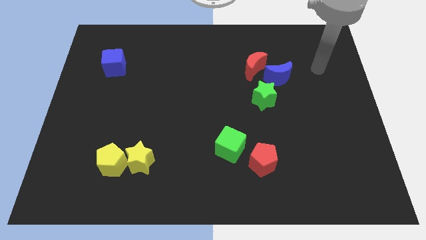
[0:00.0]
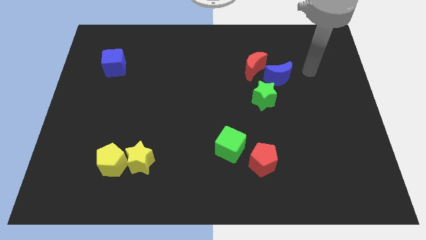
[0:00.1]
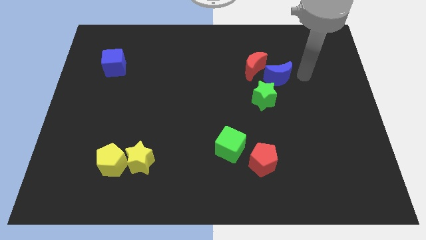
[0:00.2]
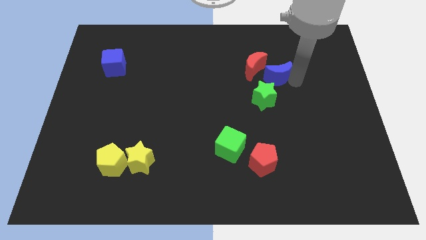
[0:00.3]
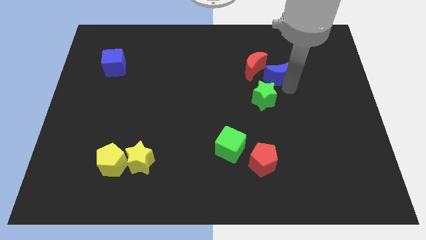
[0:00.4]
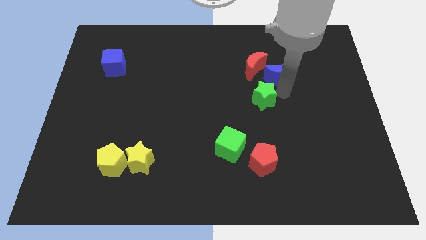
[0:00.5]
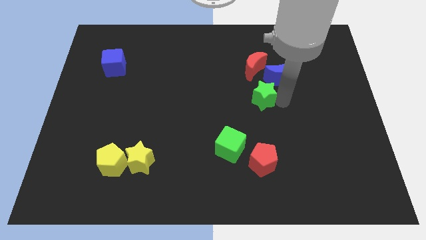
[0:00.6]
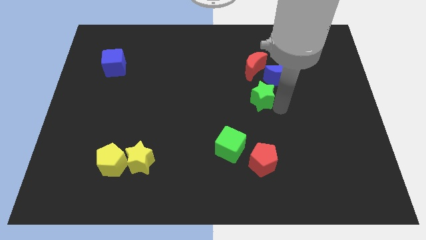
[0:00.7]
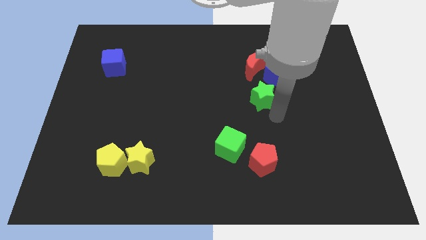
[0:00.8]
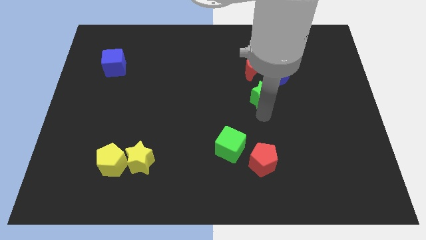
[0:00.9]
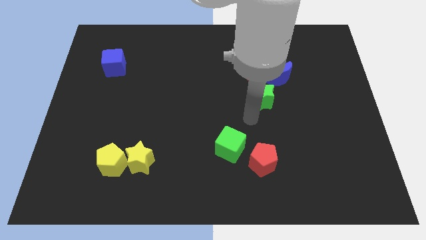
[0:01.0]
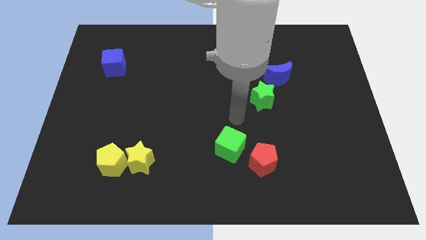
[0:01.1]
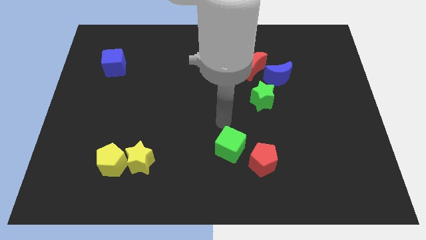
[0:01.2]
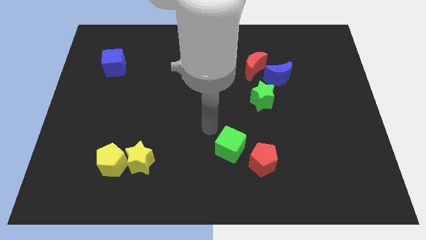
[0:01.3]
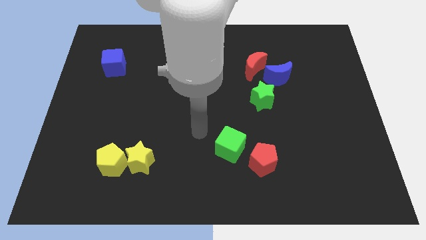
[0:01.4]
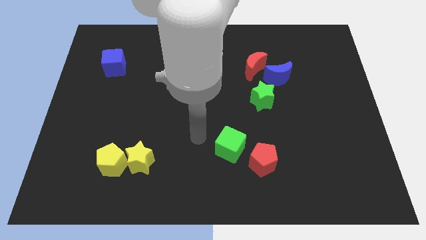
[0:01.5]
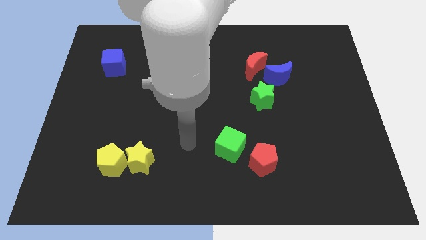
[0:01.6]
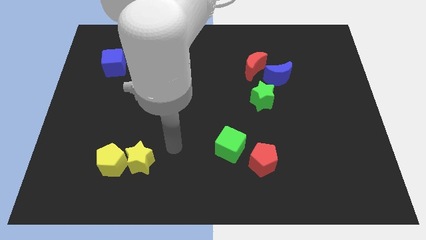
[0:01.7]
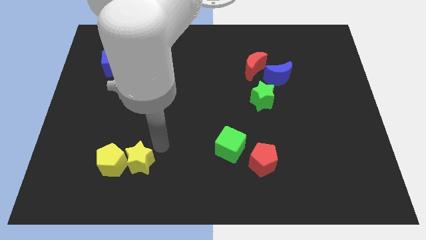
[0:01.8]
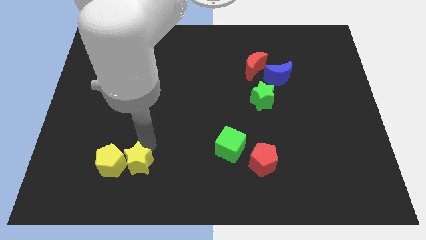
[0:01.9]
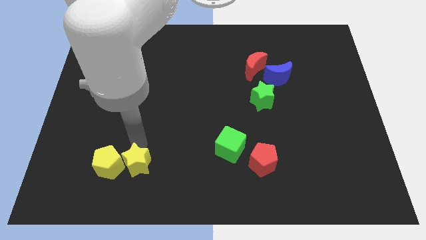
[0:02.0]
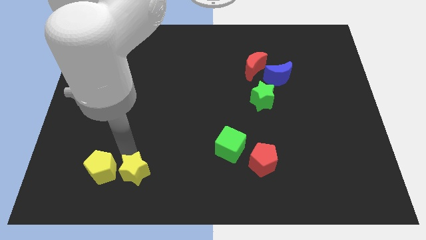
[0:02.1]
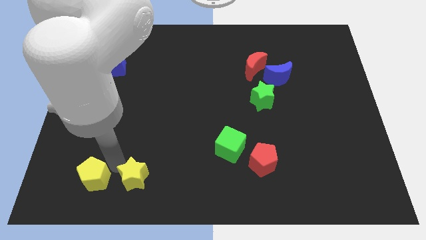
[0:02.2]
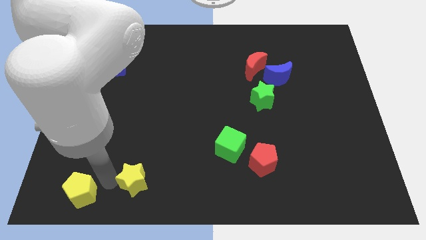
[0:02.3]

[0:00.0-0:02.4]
pull the yellow star apart from the yellow pentagon

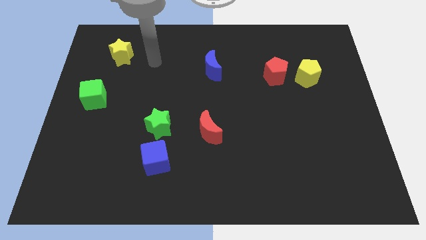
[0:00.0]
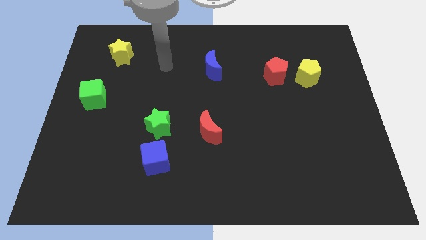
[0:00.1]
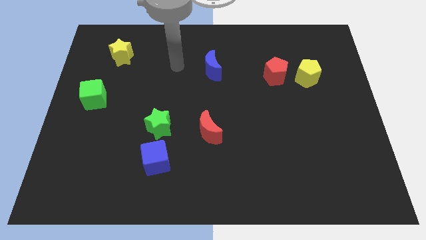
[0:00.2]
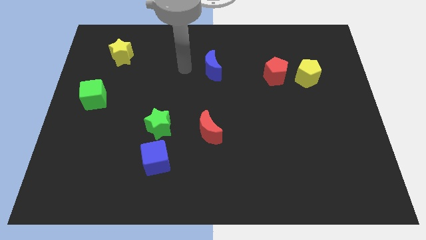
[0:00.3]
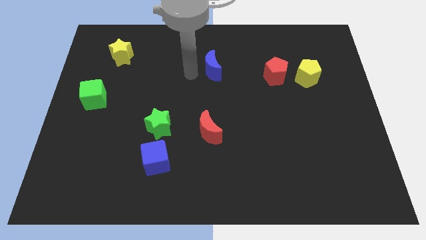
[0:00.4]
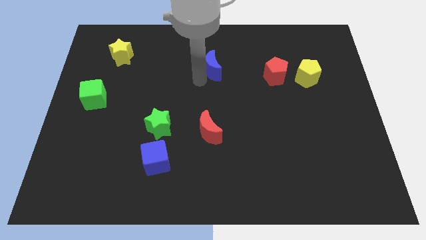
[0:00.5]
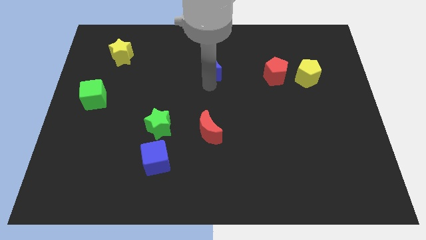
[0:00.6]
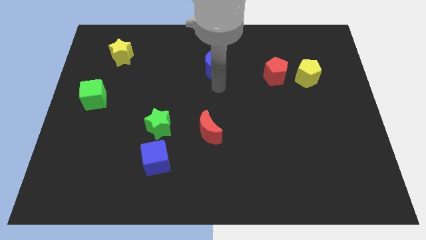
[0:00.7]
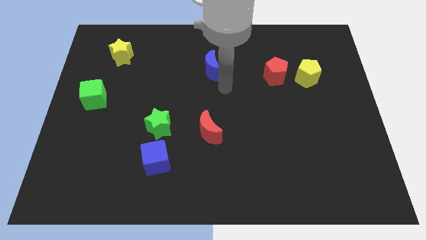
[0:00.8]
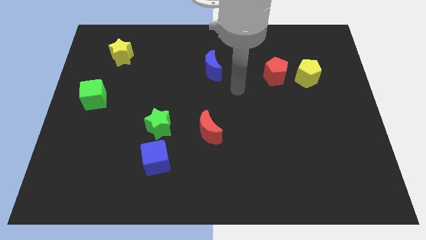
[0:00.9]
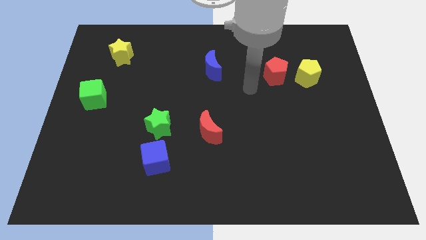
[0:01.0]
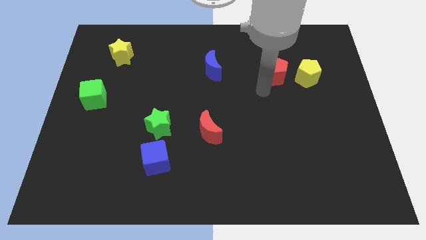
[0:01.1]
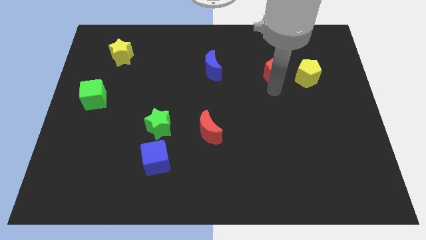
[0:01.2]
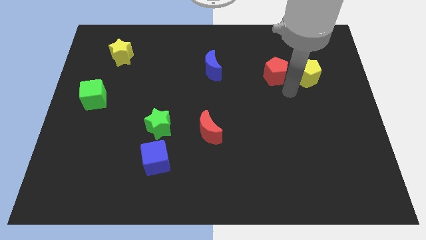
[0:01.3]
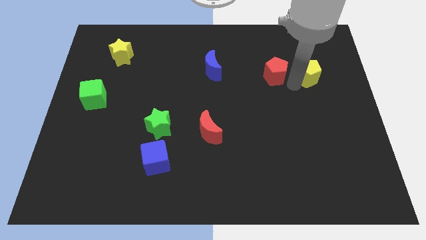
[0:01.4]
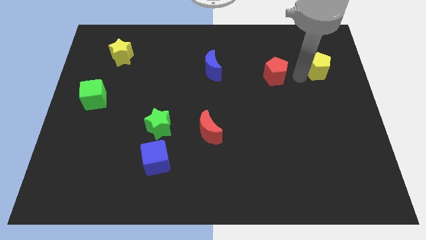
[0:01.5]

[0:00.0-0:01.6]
separate the red pentagon from the yellow pentagon

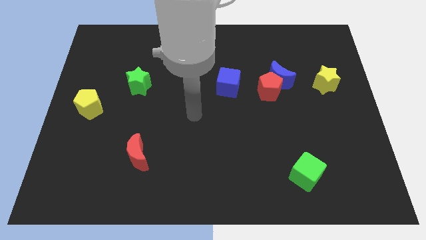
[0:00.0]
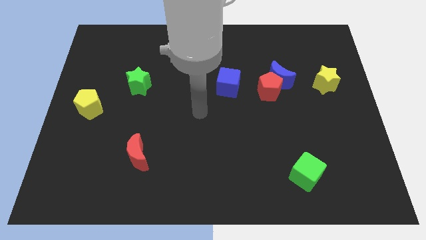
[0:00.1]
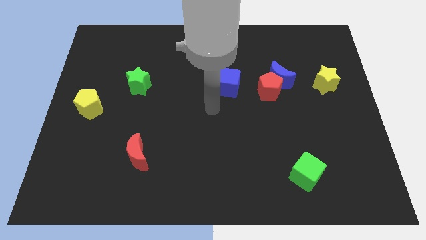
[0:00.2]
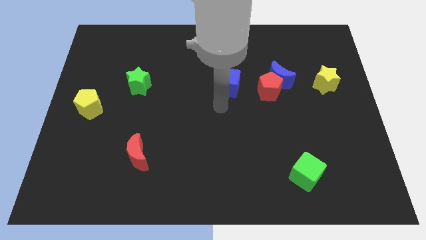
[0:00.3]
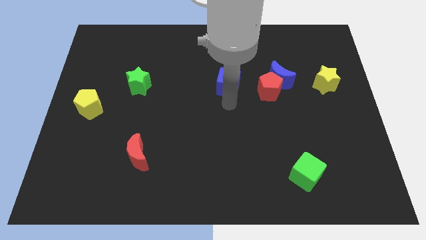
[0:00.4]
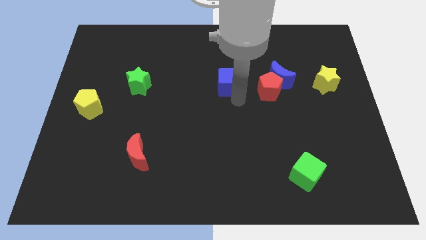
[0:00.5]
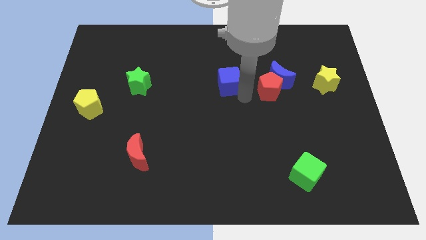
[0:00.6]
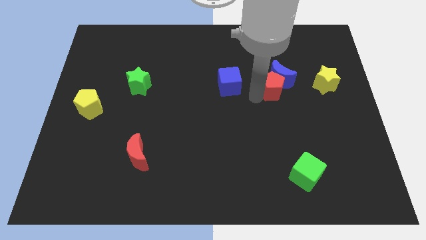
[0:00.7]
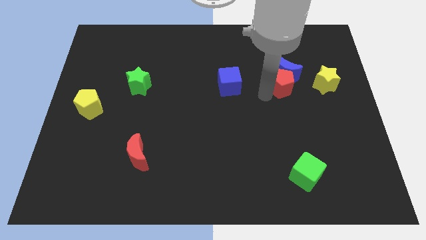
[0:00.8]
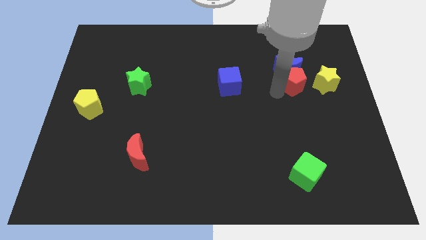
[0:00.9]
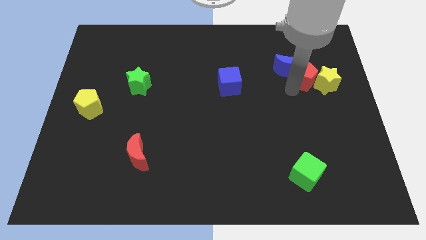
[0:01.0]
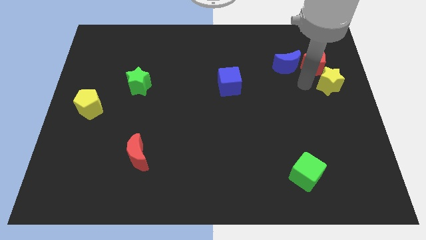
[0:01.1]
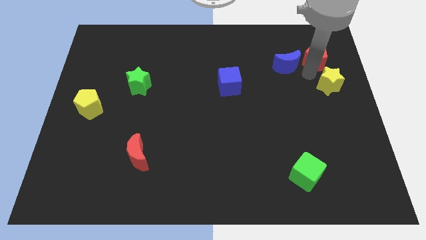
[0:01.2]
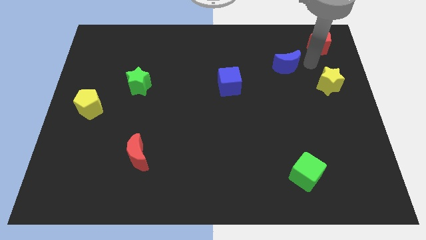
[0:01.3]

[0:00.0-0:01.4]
move the blue moon away from the red pentagon

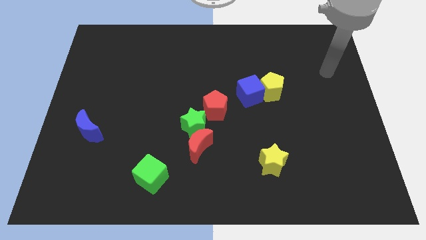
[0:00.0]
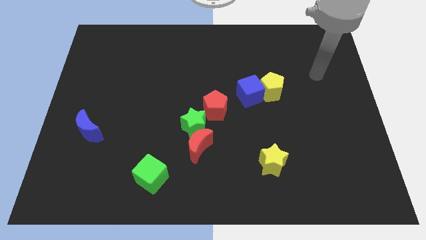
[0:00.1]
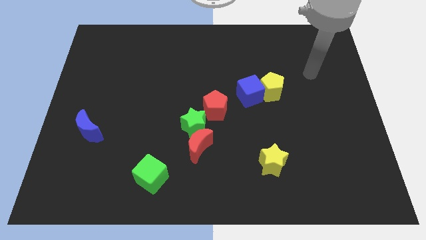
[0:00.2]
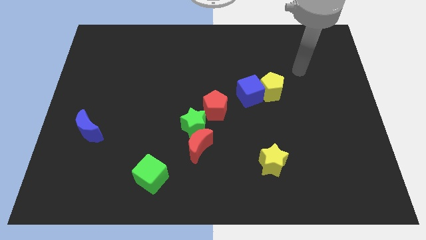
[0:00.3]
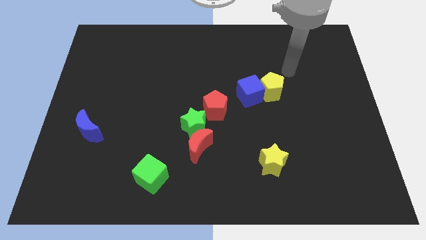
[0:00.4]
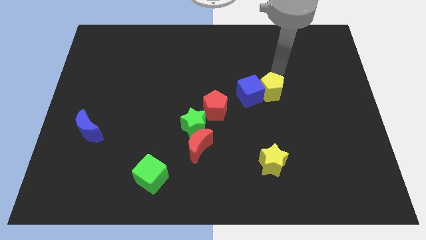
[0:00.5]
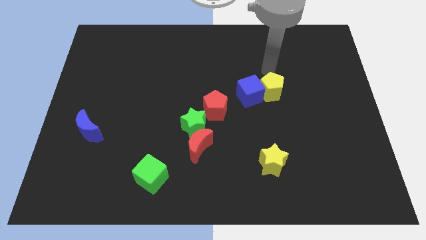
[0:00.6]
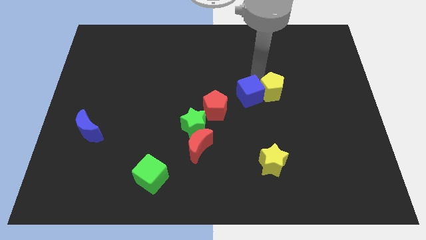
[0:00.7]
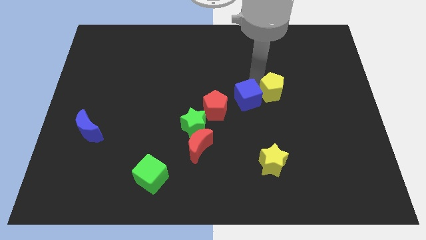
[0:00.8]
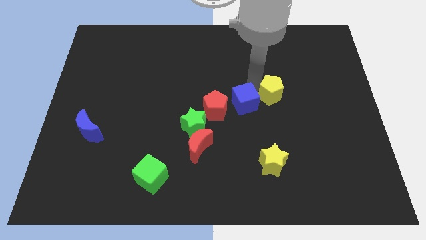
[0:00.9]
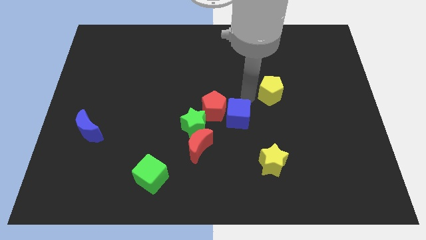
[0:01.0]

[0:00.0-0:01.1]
pull the yellow pentagon apart from the blue cube

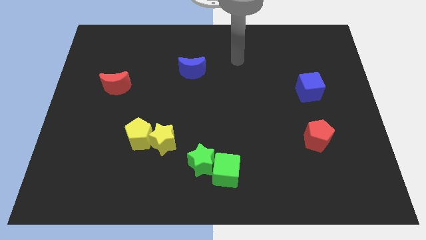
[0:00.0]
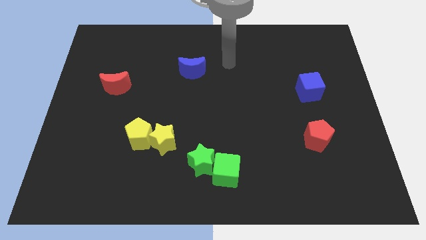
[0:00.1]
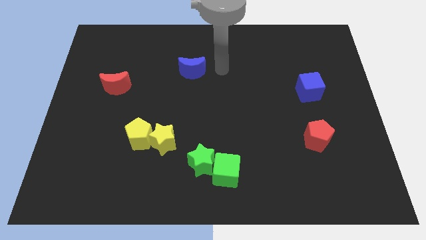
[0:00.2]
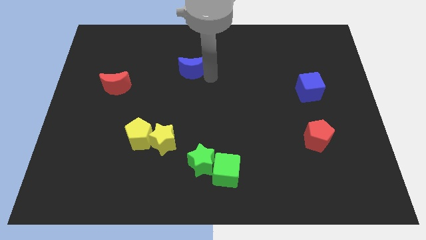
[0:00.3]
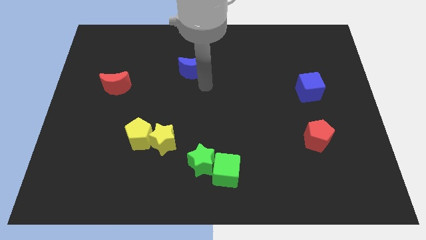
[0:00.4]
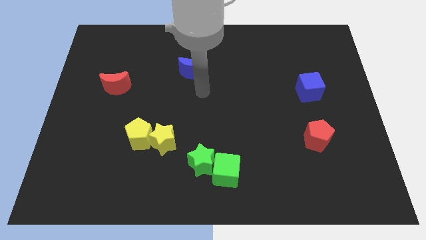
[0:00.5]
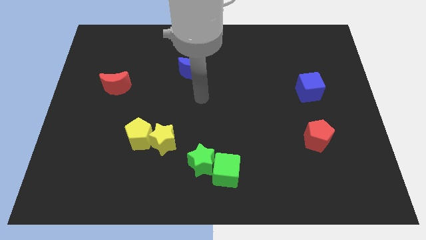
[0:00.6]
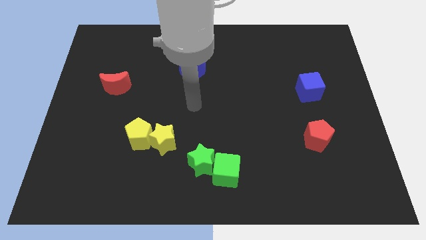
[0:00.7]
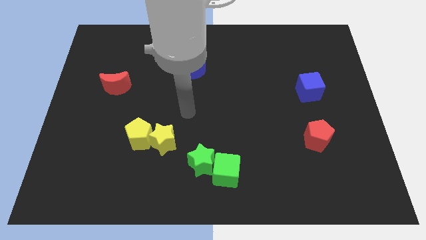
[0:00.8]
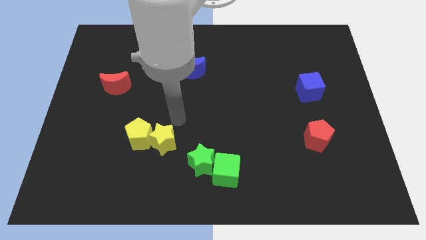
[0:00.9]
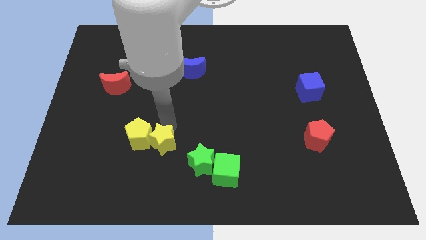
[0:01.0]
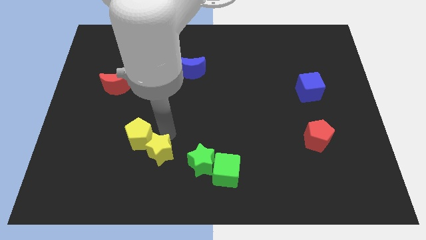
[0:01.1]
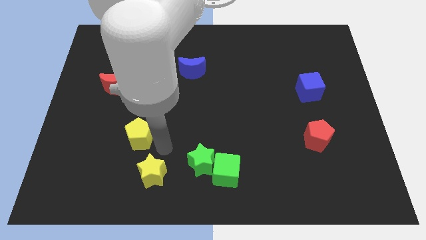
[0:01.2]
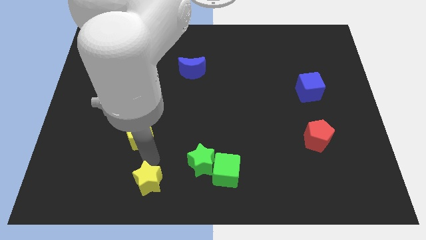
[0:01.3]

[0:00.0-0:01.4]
move the yellow pentagon away from the yellow star

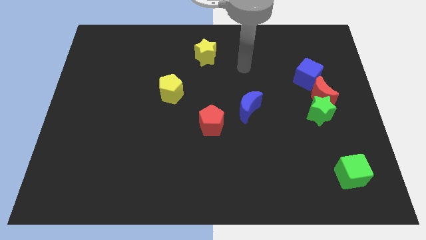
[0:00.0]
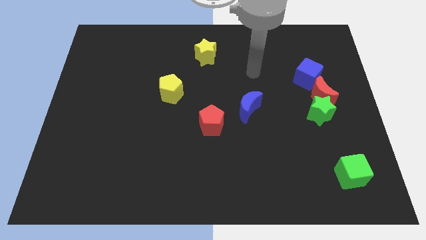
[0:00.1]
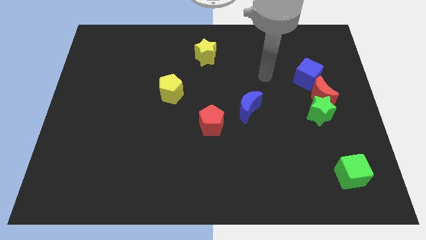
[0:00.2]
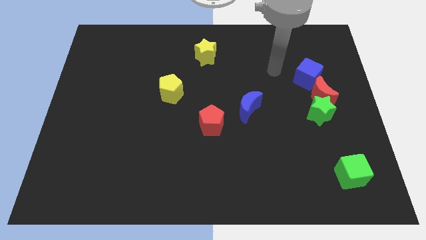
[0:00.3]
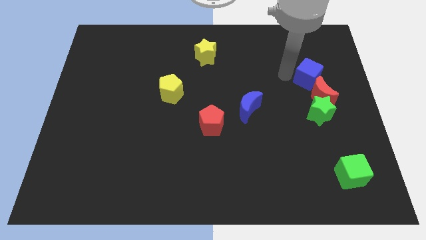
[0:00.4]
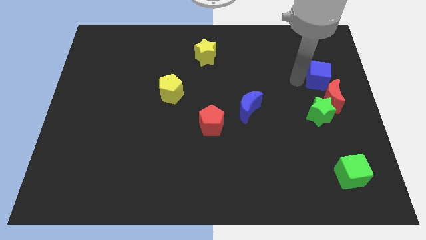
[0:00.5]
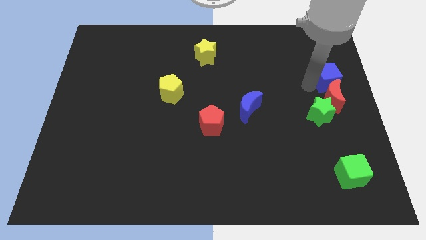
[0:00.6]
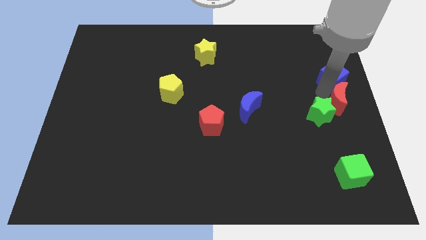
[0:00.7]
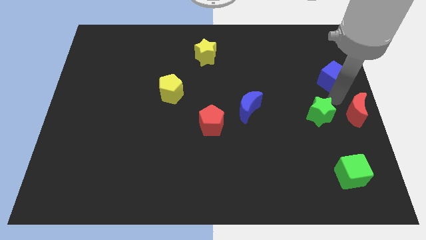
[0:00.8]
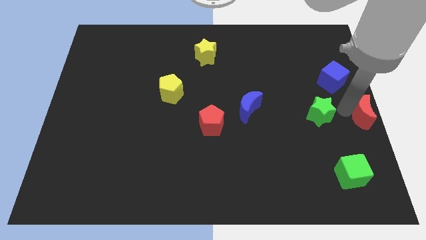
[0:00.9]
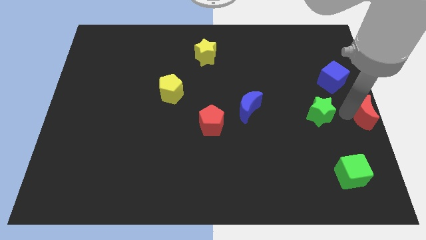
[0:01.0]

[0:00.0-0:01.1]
pull the green star apart from the red moon

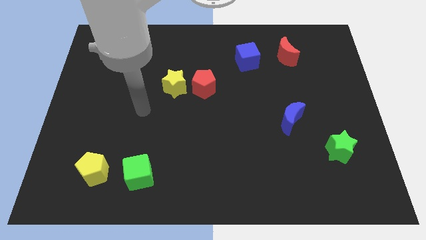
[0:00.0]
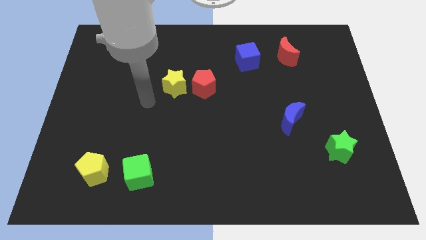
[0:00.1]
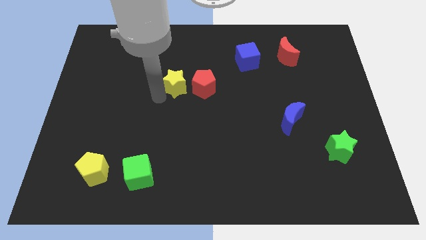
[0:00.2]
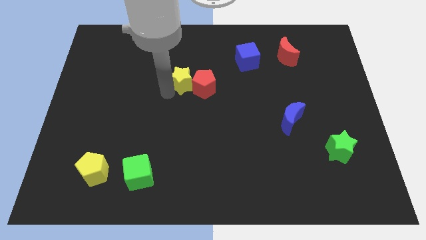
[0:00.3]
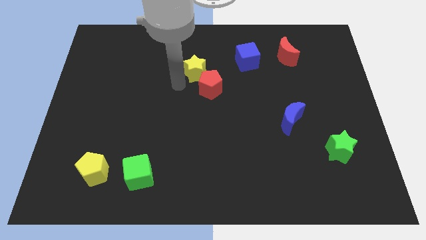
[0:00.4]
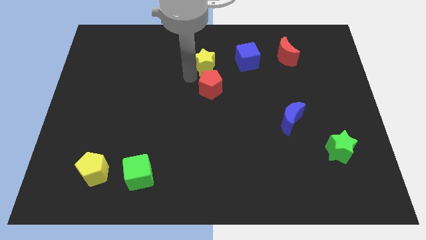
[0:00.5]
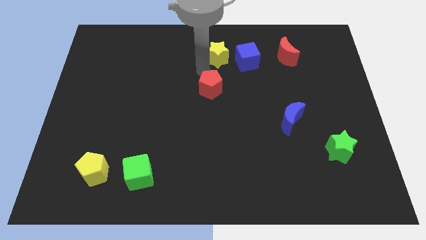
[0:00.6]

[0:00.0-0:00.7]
move the red pentagon away from the yellow star
